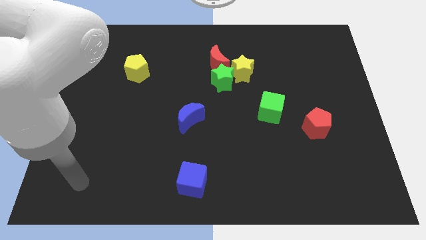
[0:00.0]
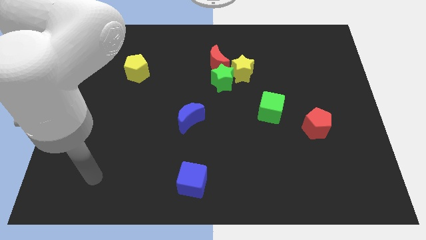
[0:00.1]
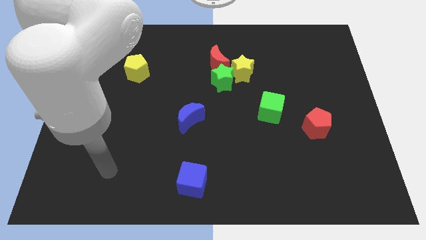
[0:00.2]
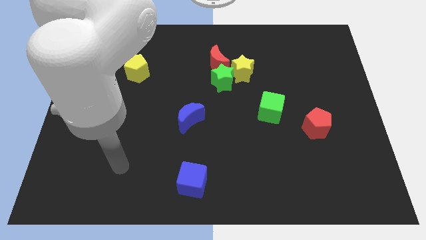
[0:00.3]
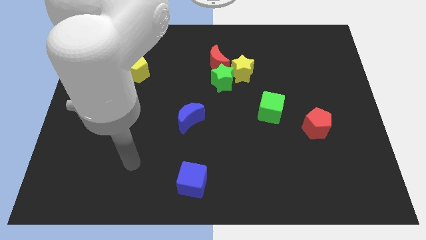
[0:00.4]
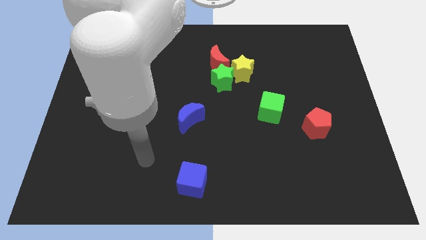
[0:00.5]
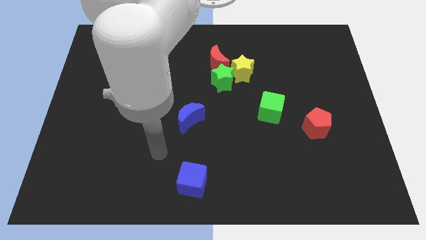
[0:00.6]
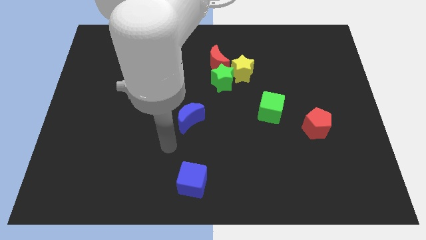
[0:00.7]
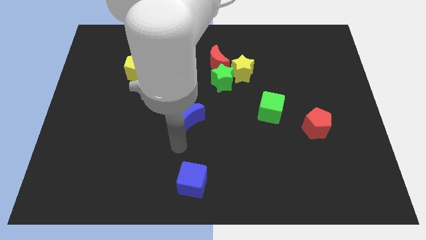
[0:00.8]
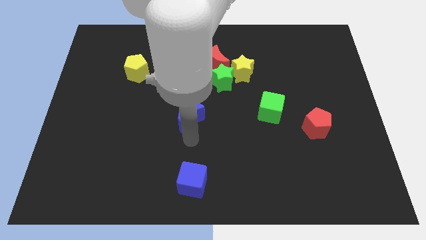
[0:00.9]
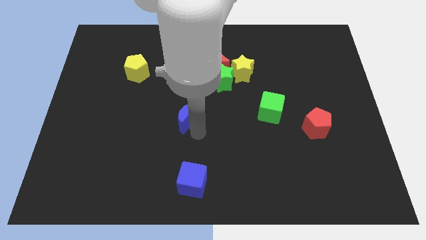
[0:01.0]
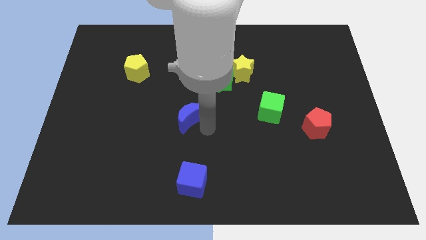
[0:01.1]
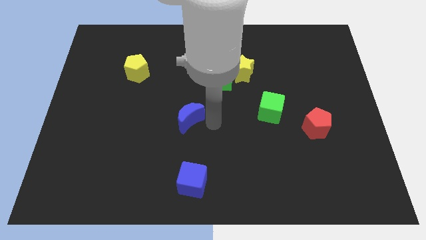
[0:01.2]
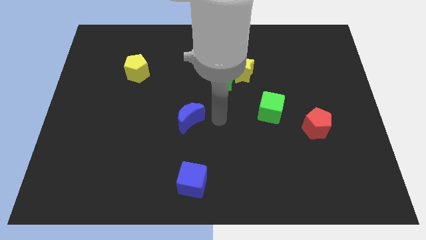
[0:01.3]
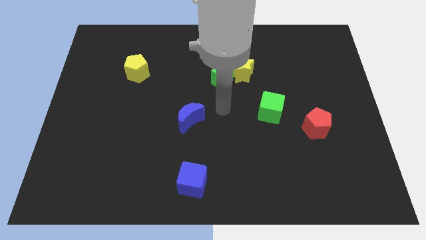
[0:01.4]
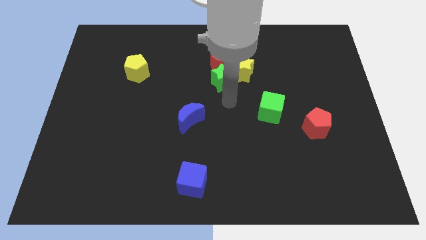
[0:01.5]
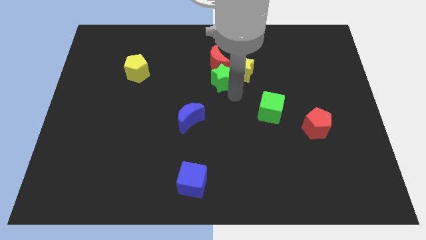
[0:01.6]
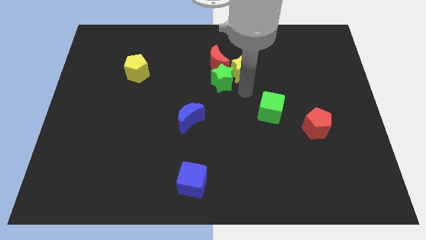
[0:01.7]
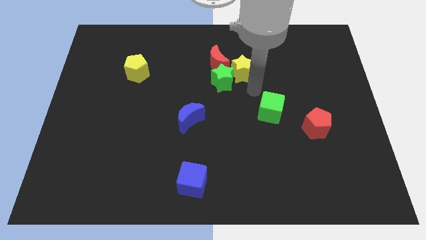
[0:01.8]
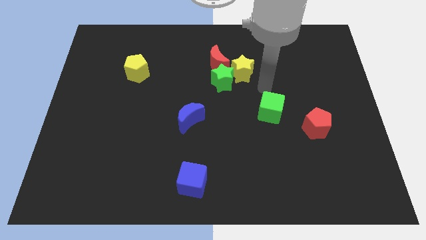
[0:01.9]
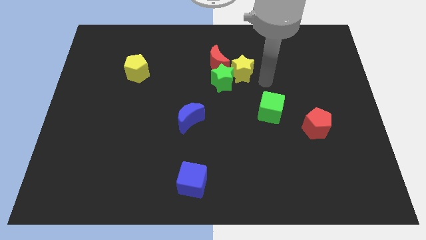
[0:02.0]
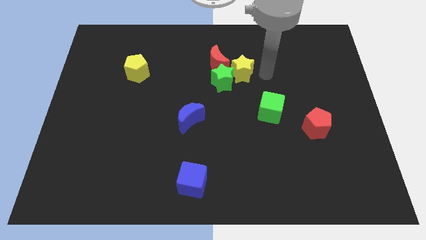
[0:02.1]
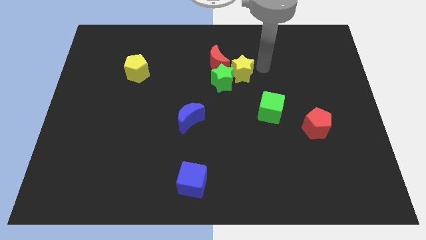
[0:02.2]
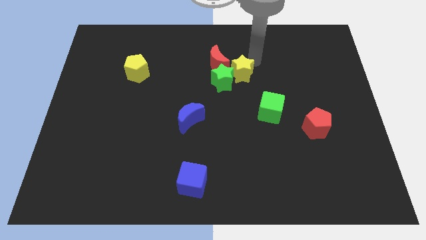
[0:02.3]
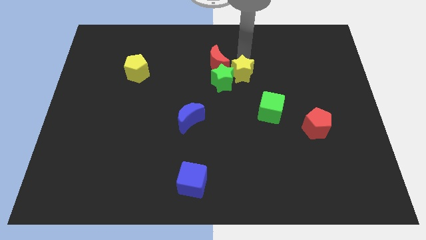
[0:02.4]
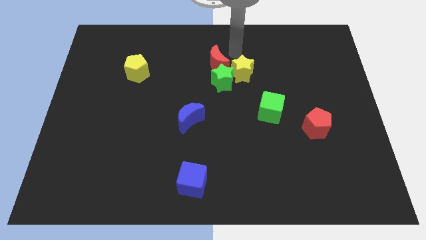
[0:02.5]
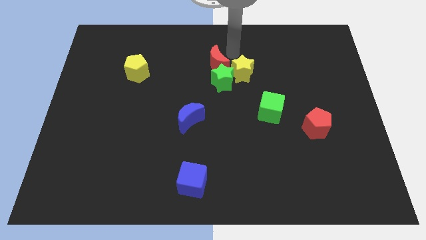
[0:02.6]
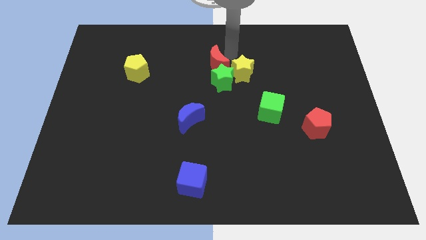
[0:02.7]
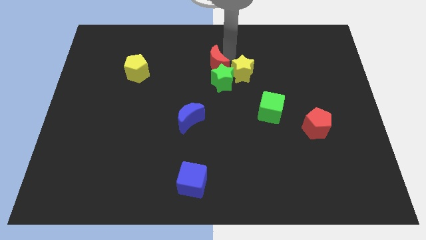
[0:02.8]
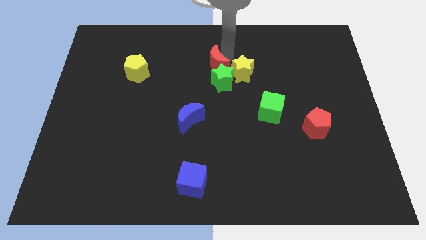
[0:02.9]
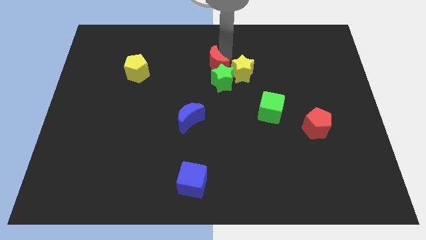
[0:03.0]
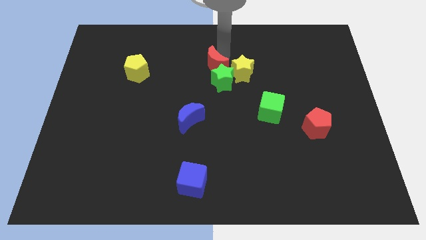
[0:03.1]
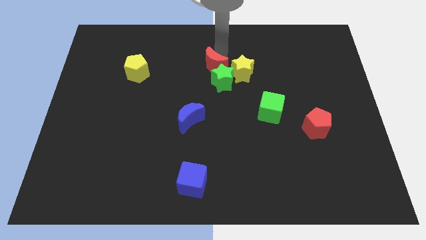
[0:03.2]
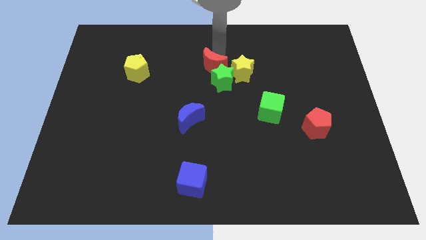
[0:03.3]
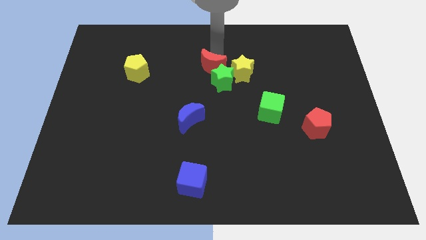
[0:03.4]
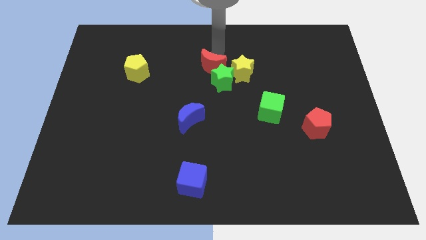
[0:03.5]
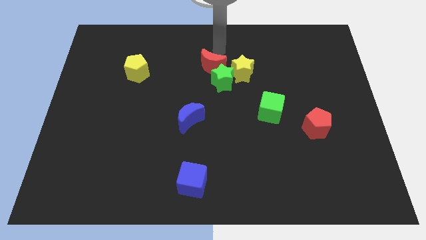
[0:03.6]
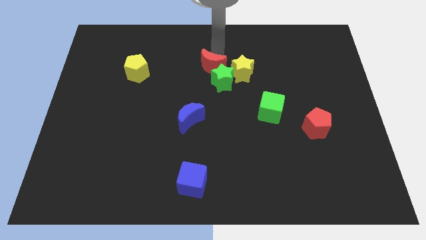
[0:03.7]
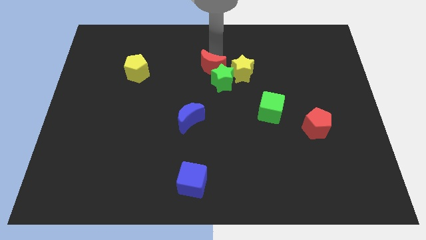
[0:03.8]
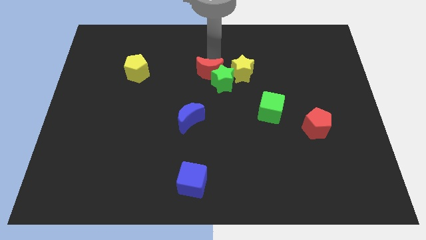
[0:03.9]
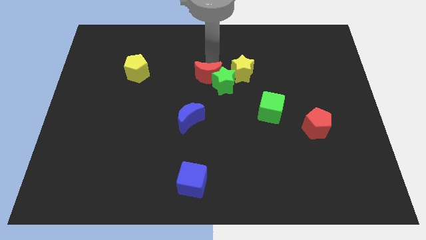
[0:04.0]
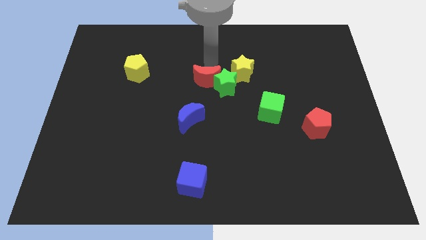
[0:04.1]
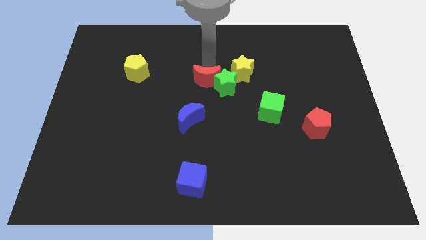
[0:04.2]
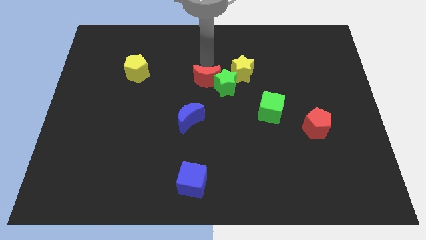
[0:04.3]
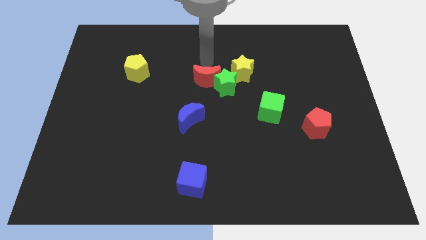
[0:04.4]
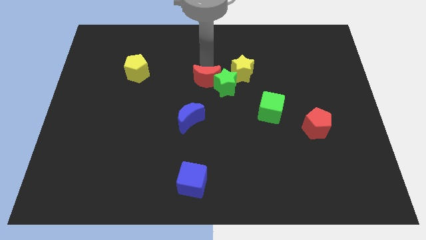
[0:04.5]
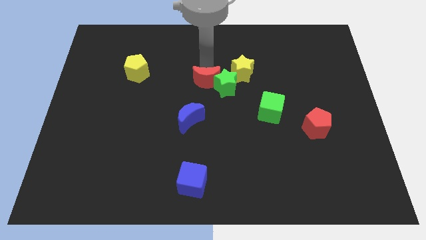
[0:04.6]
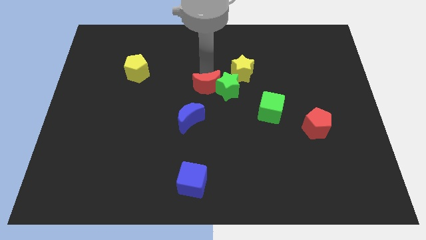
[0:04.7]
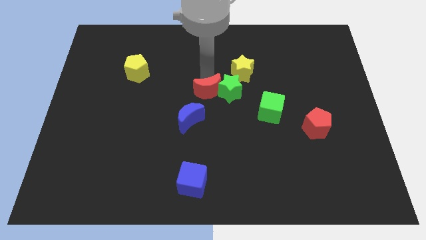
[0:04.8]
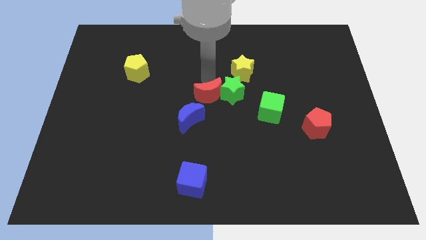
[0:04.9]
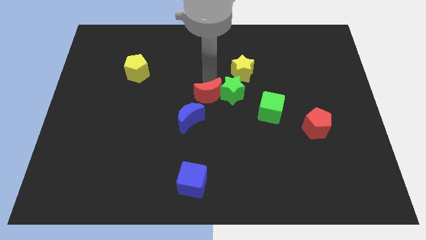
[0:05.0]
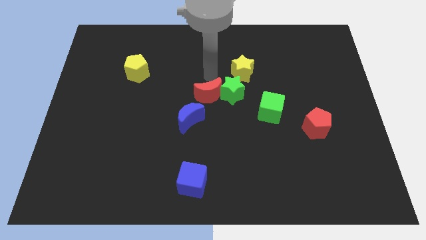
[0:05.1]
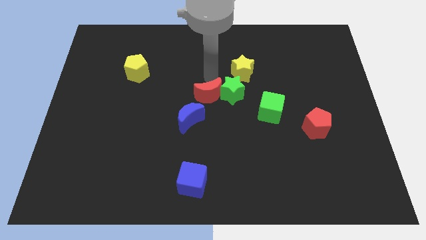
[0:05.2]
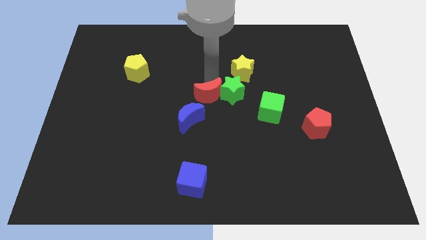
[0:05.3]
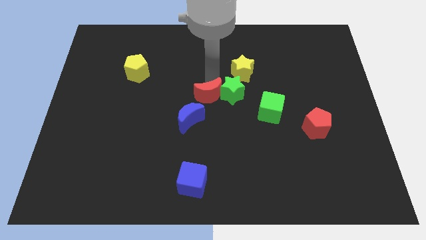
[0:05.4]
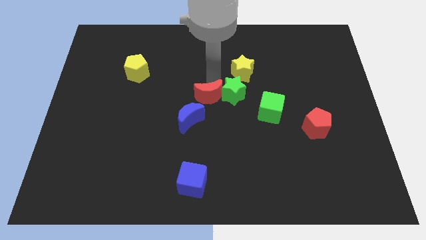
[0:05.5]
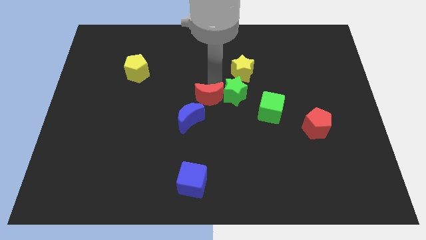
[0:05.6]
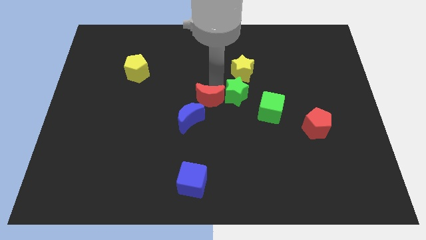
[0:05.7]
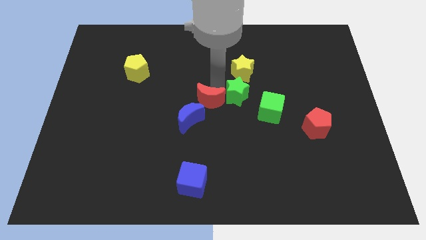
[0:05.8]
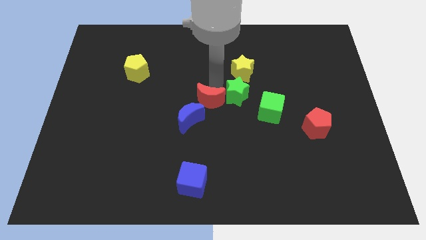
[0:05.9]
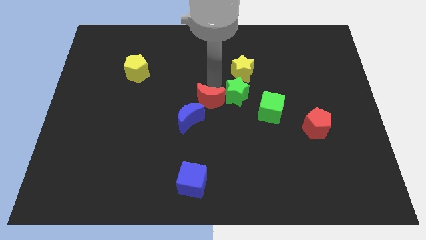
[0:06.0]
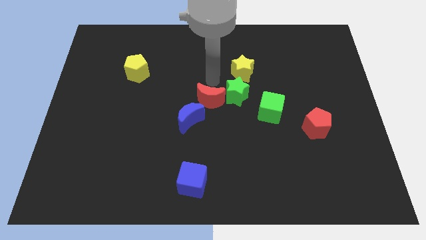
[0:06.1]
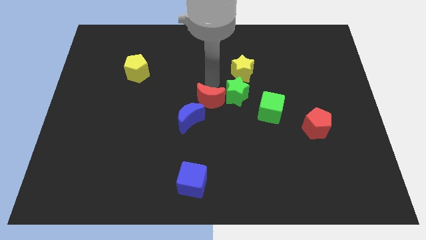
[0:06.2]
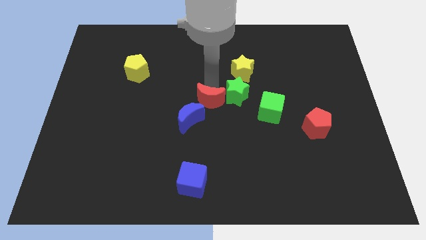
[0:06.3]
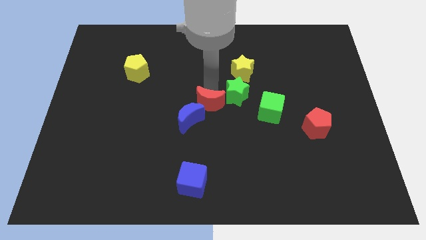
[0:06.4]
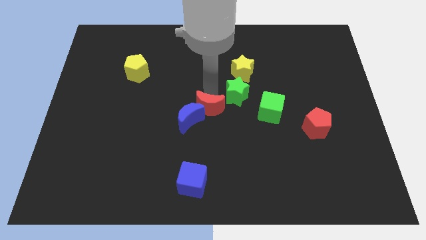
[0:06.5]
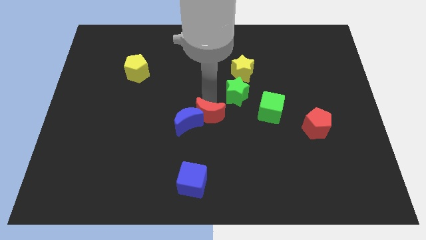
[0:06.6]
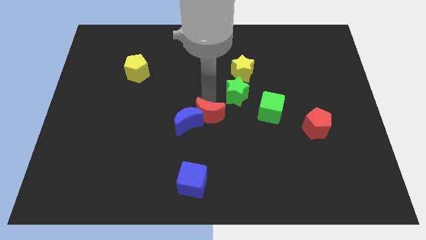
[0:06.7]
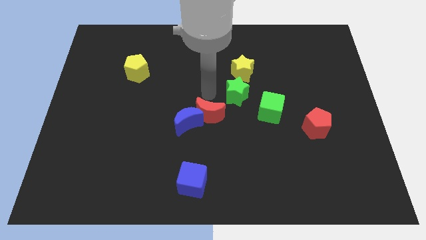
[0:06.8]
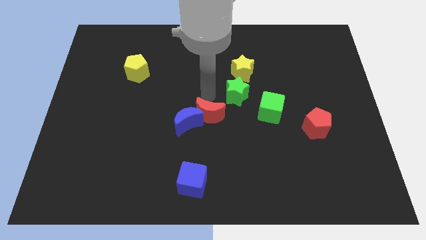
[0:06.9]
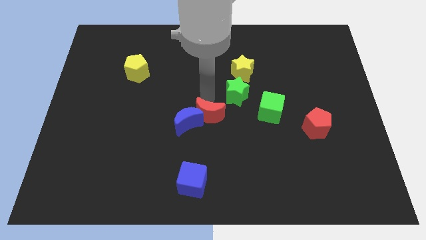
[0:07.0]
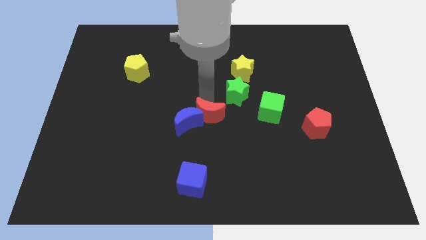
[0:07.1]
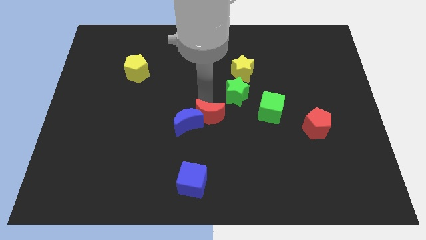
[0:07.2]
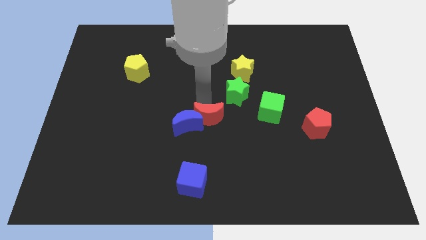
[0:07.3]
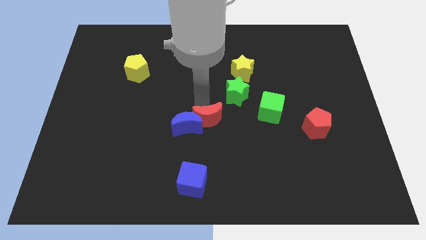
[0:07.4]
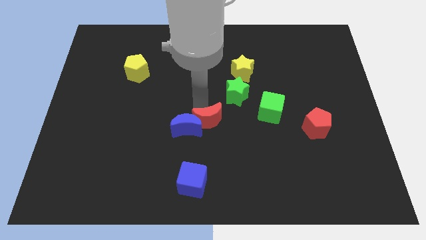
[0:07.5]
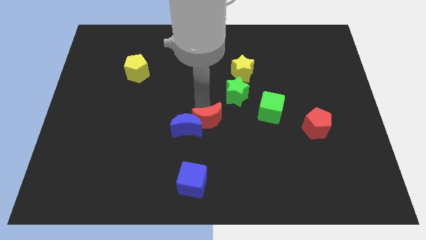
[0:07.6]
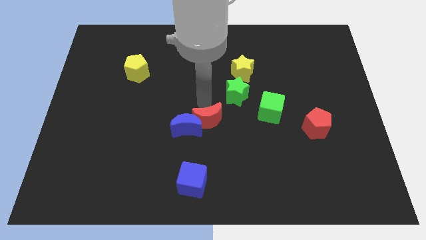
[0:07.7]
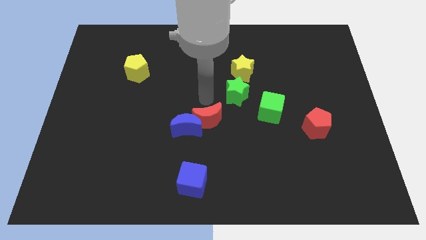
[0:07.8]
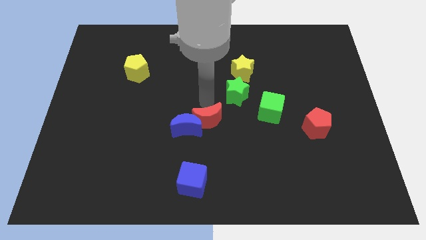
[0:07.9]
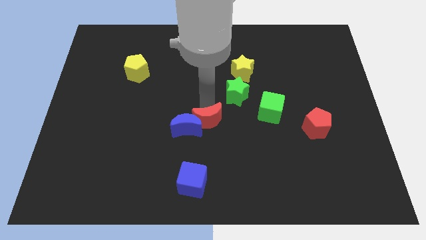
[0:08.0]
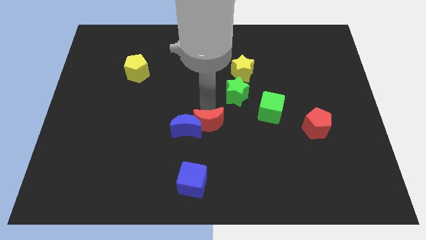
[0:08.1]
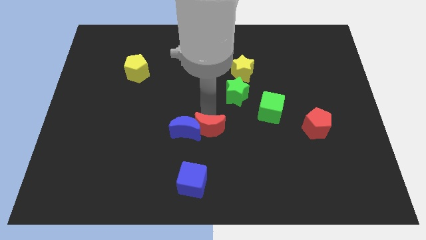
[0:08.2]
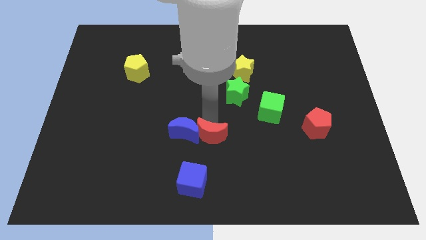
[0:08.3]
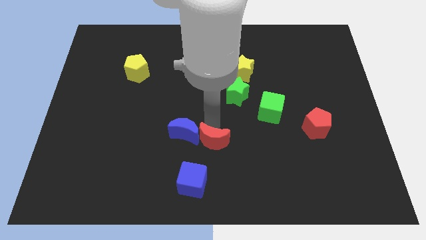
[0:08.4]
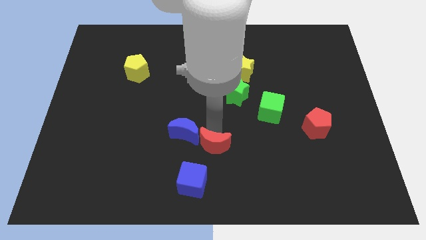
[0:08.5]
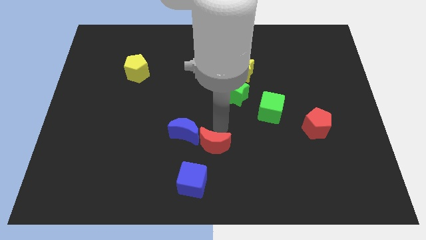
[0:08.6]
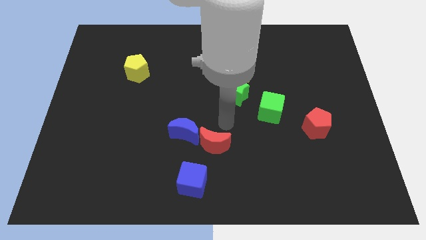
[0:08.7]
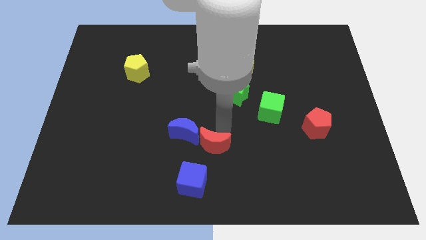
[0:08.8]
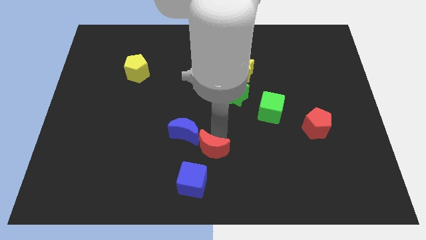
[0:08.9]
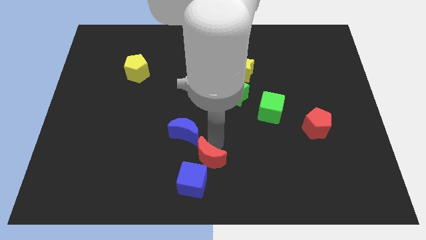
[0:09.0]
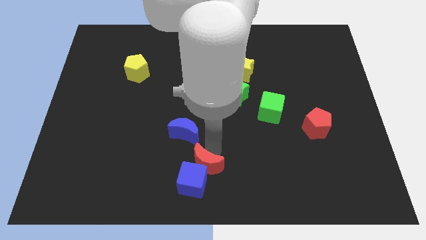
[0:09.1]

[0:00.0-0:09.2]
slide the red moon to the blue cube
